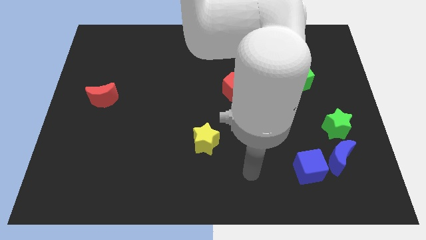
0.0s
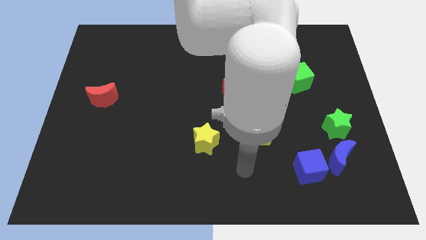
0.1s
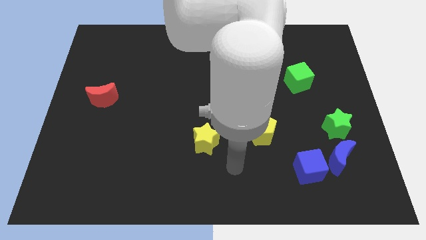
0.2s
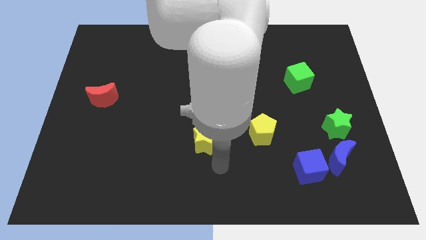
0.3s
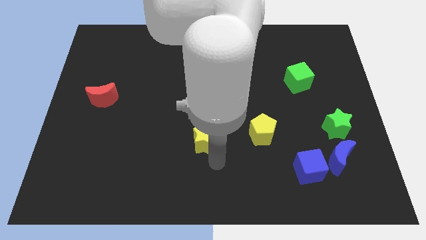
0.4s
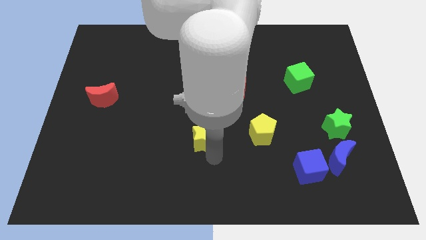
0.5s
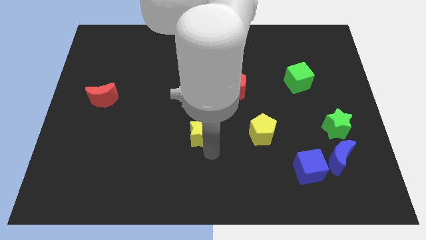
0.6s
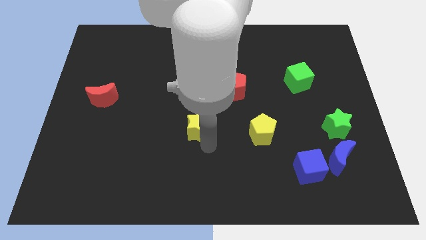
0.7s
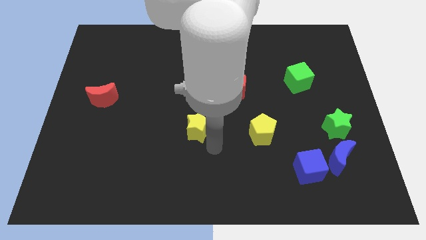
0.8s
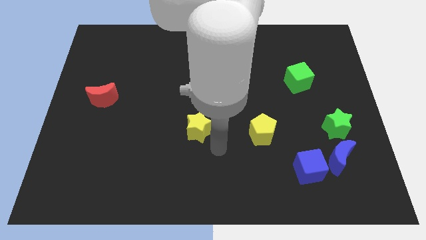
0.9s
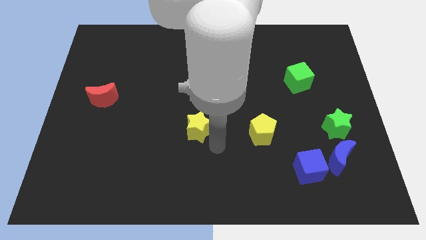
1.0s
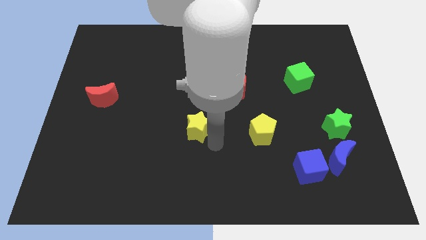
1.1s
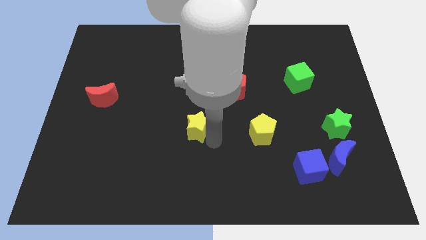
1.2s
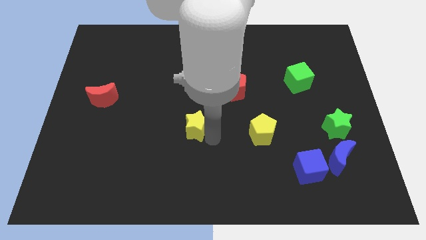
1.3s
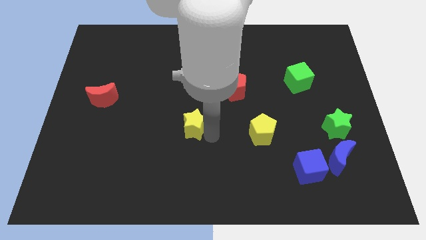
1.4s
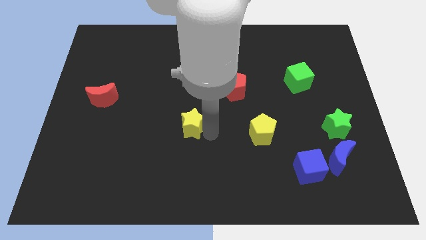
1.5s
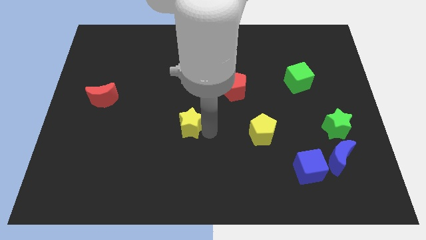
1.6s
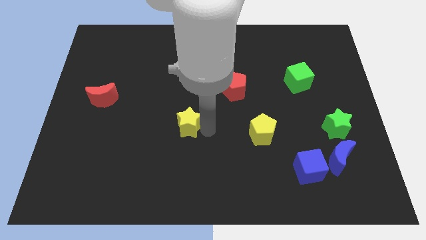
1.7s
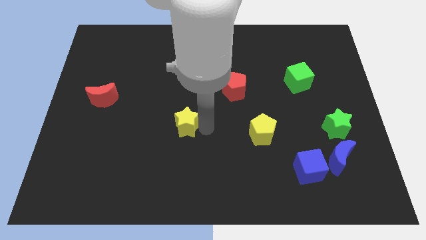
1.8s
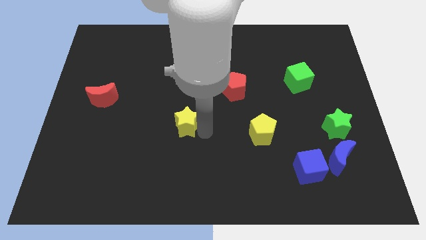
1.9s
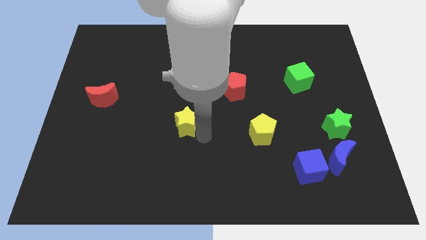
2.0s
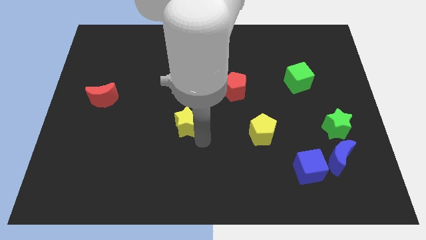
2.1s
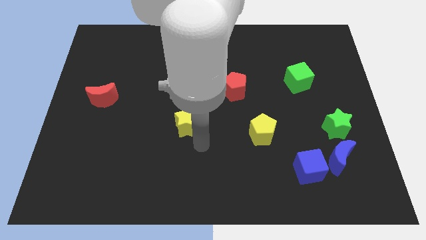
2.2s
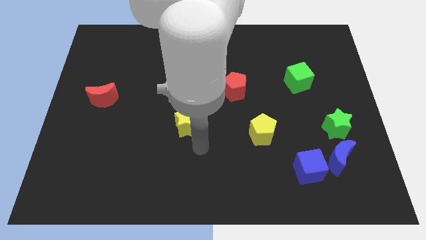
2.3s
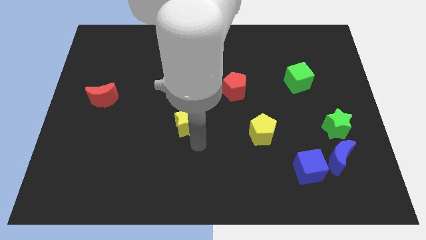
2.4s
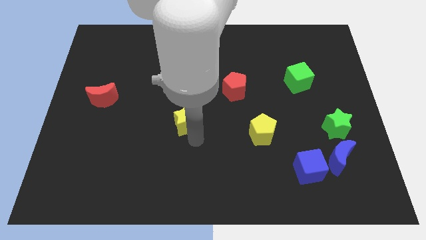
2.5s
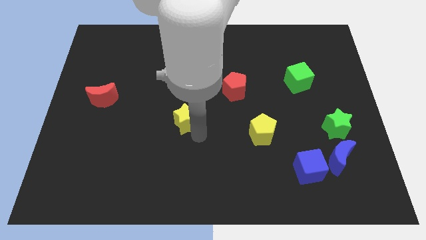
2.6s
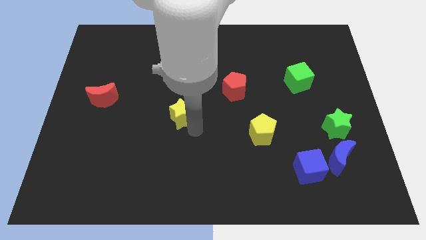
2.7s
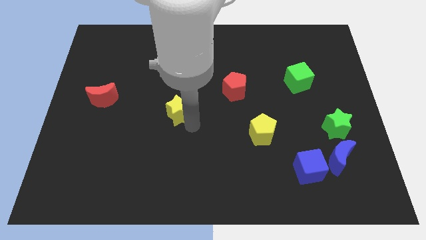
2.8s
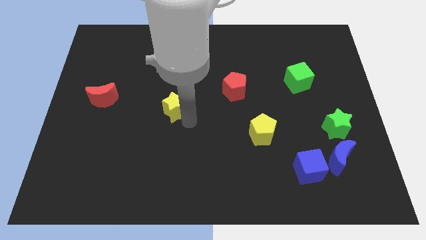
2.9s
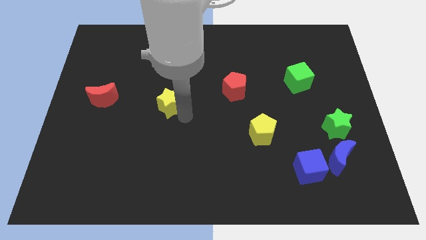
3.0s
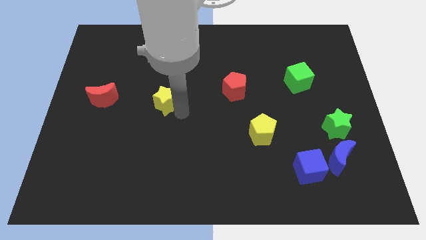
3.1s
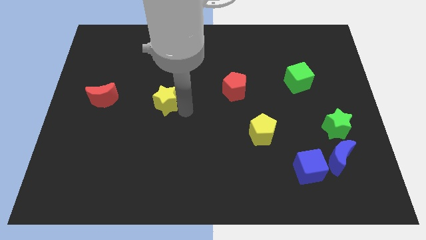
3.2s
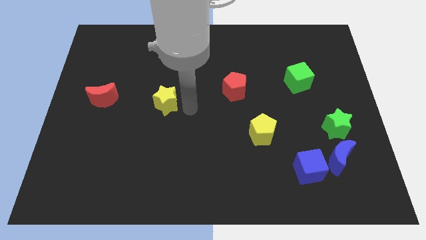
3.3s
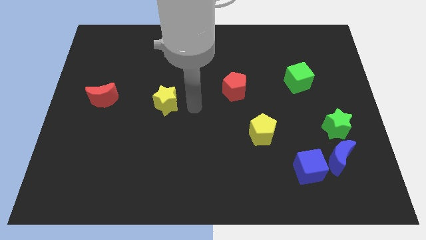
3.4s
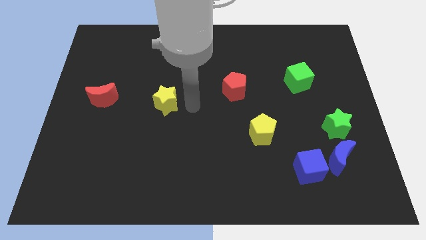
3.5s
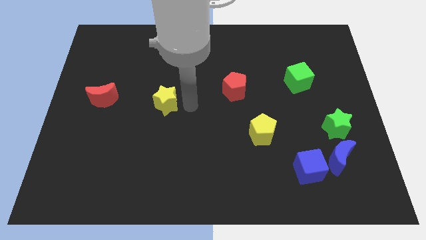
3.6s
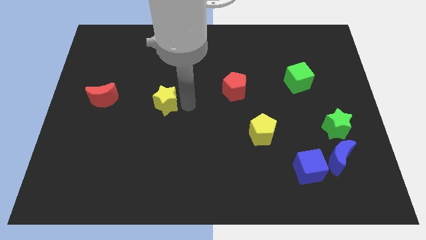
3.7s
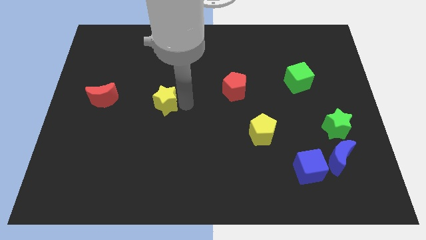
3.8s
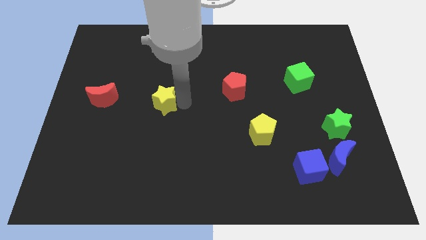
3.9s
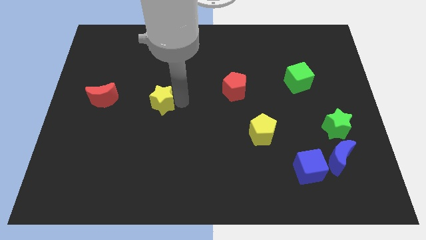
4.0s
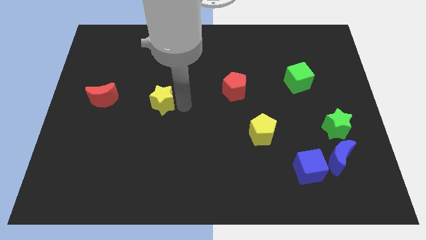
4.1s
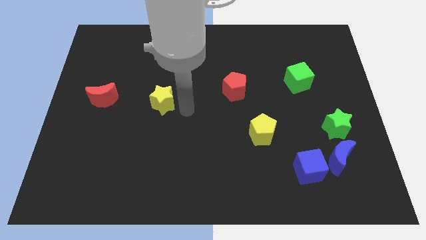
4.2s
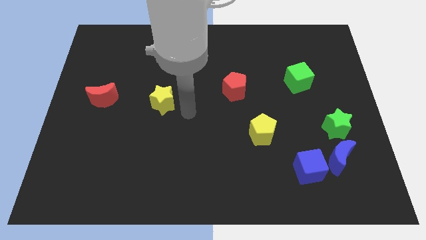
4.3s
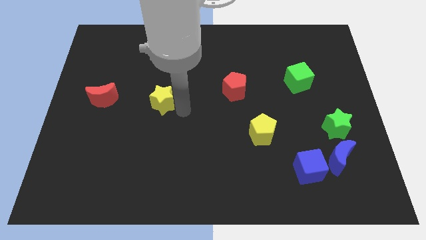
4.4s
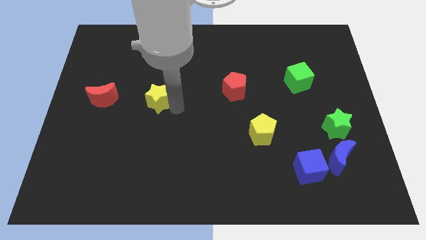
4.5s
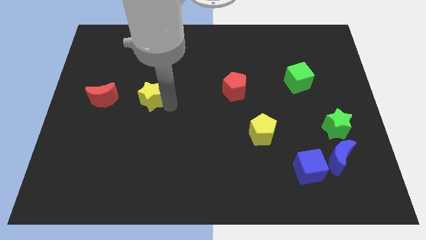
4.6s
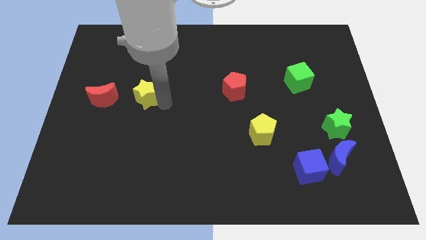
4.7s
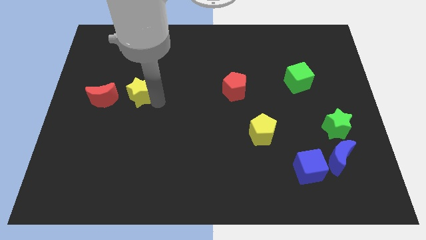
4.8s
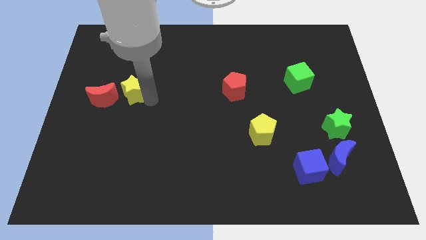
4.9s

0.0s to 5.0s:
slide the yellow star to the top right of the red moon

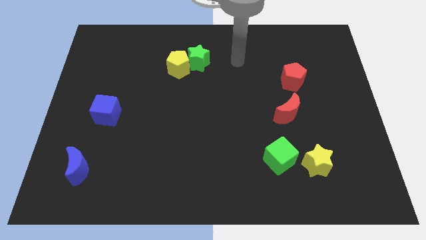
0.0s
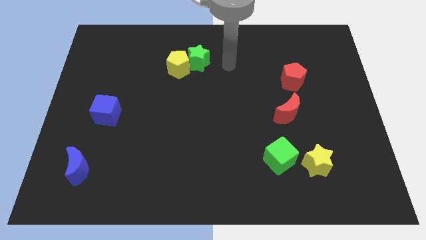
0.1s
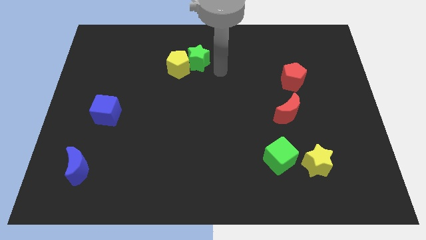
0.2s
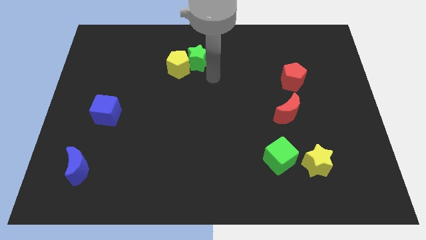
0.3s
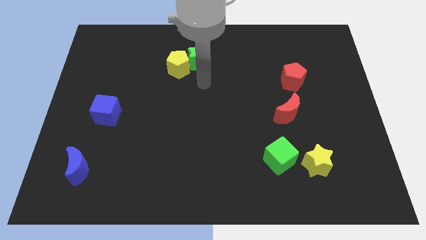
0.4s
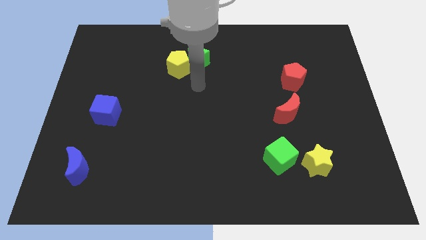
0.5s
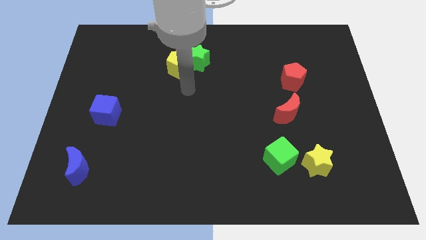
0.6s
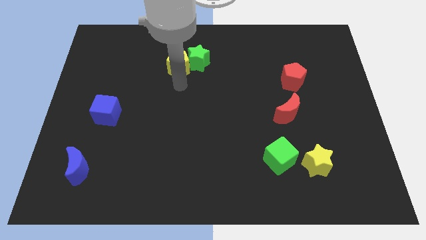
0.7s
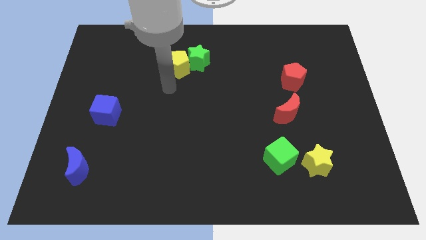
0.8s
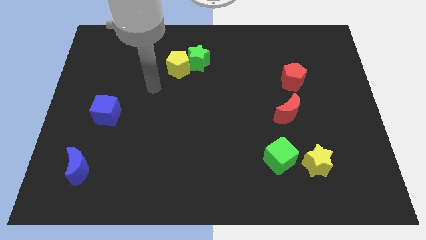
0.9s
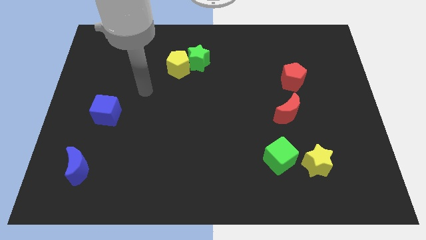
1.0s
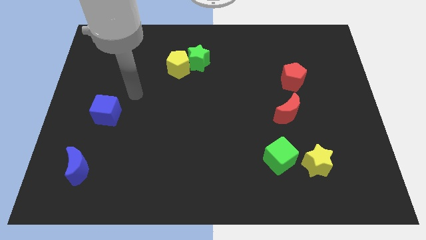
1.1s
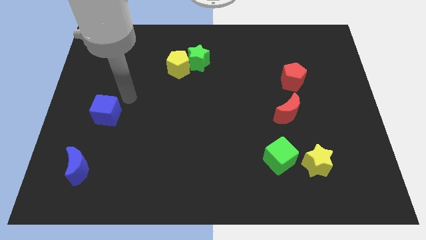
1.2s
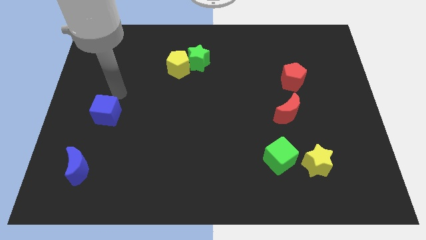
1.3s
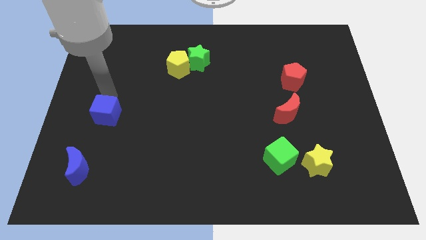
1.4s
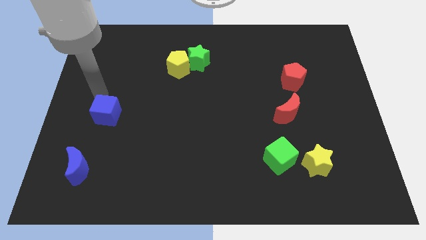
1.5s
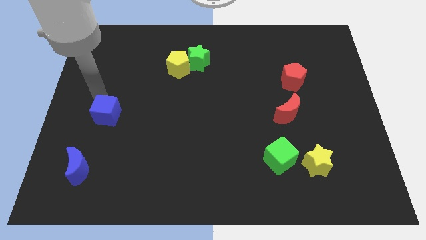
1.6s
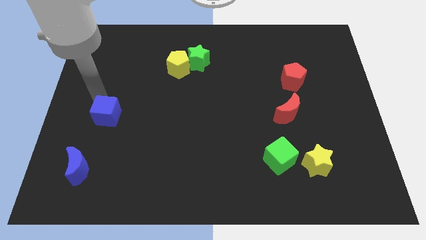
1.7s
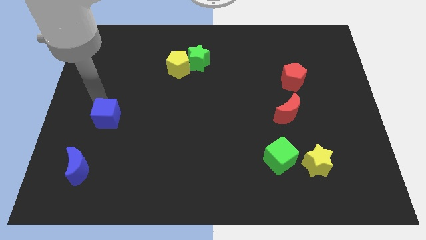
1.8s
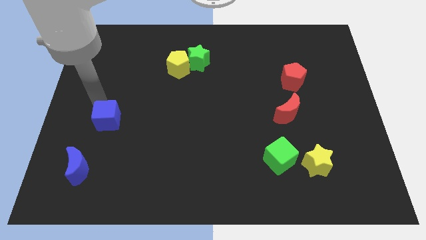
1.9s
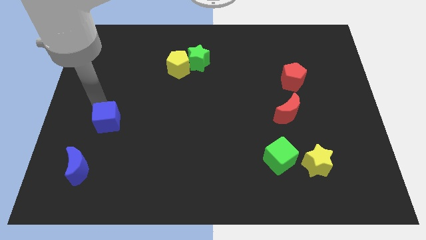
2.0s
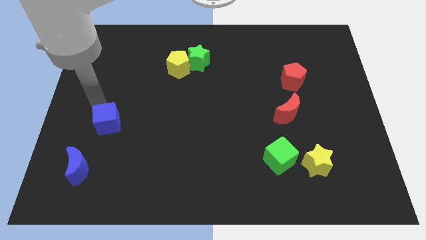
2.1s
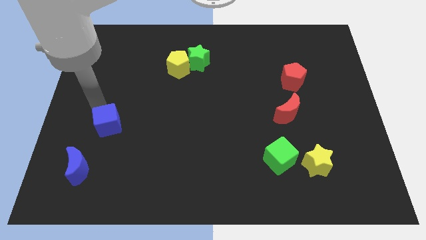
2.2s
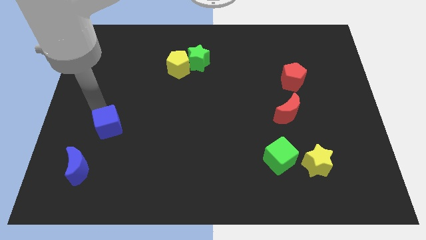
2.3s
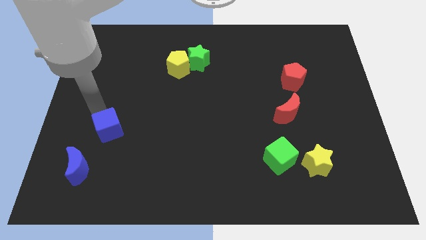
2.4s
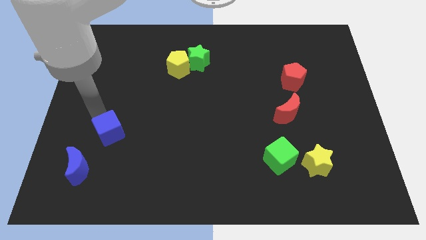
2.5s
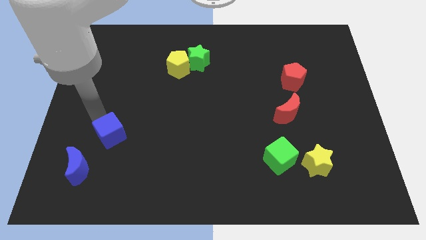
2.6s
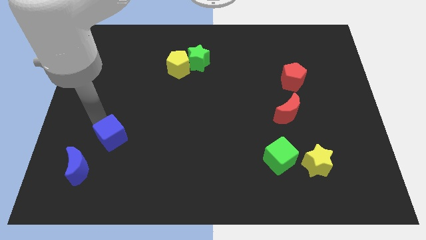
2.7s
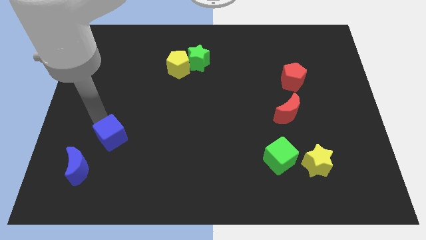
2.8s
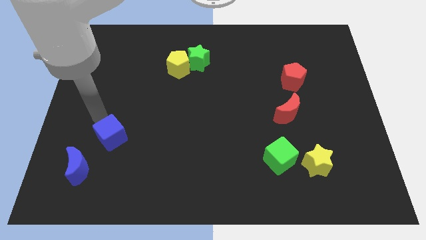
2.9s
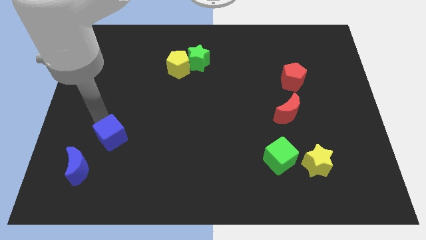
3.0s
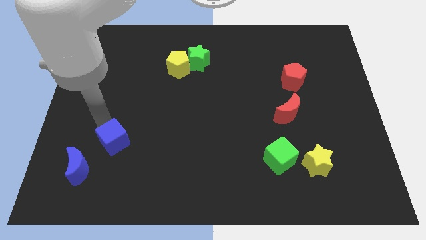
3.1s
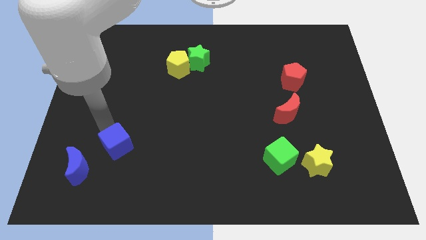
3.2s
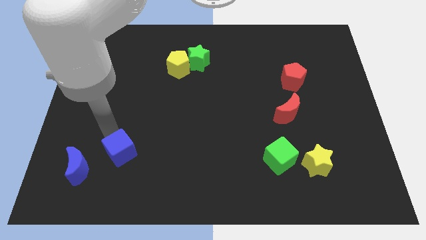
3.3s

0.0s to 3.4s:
slide the blue cube to the right of the blue moon
